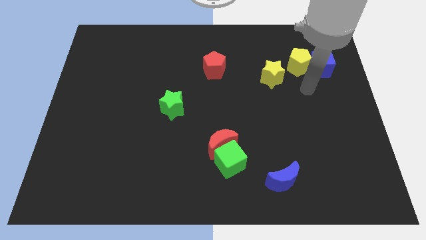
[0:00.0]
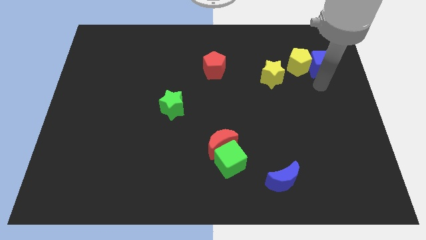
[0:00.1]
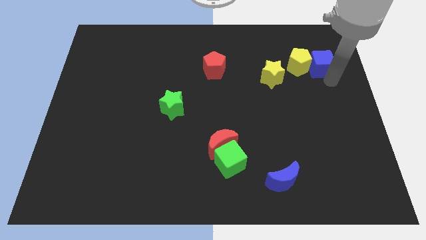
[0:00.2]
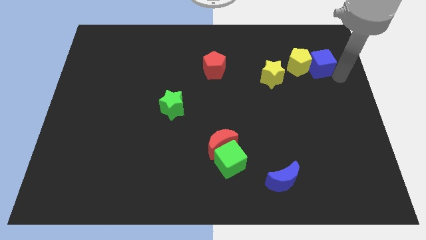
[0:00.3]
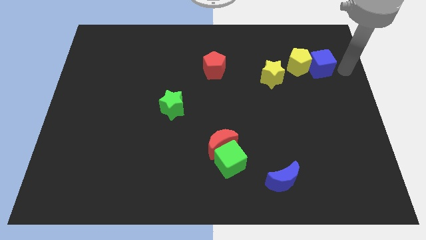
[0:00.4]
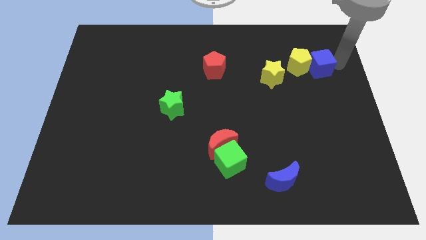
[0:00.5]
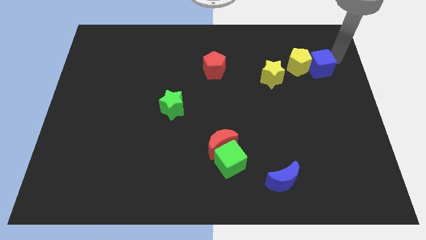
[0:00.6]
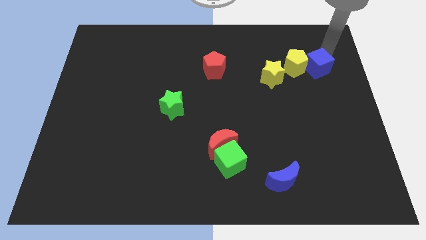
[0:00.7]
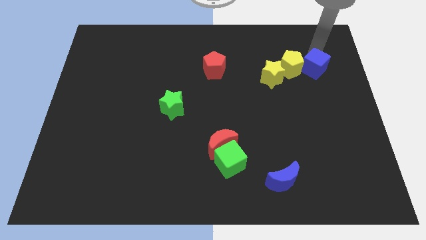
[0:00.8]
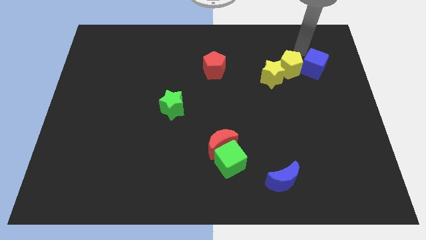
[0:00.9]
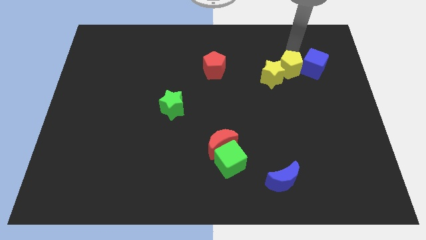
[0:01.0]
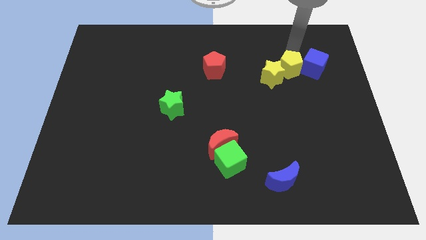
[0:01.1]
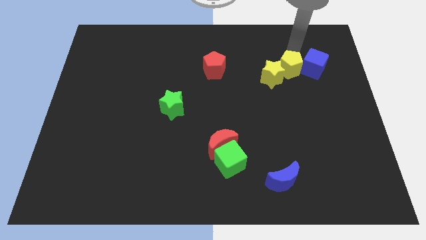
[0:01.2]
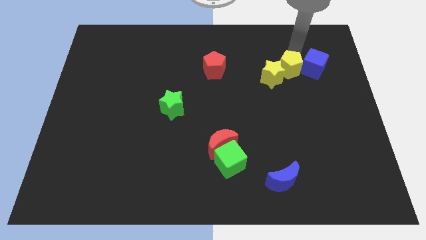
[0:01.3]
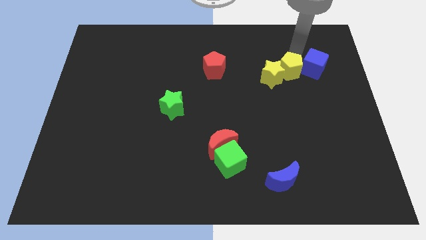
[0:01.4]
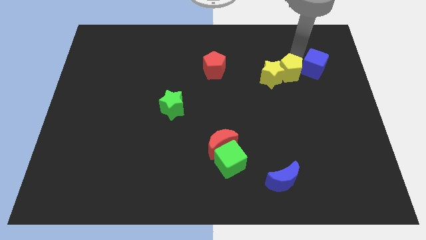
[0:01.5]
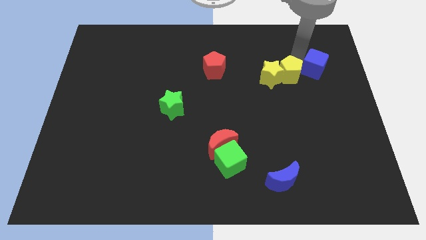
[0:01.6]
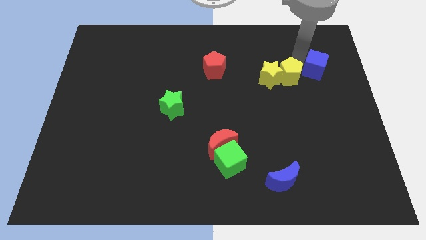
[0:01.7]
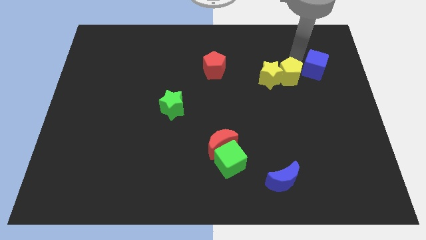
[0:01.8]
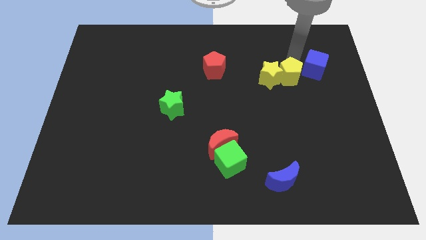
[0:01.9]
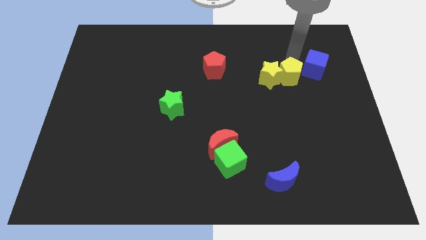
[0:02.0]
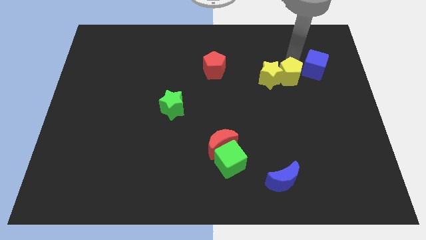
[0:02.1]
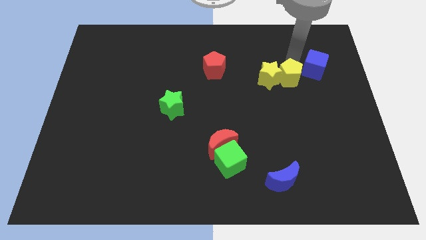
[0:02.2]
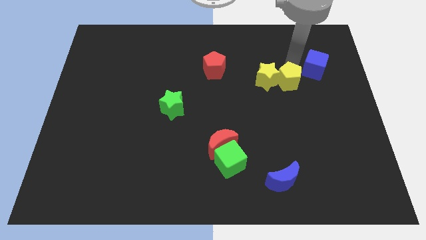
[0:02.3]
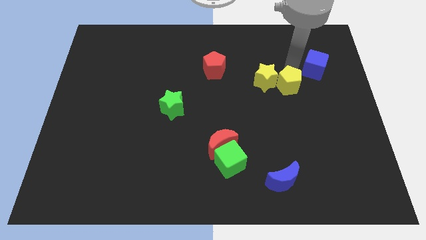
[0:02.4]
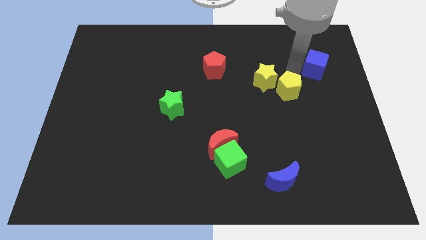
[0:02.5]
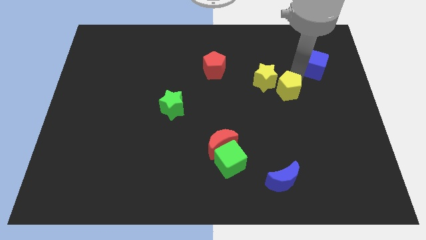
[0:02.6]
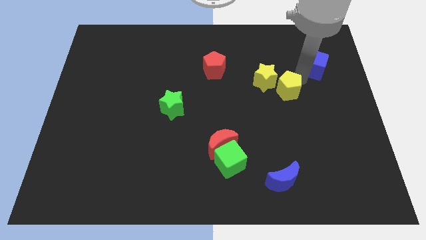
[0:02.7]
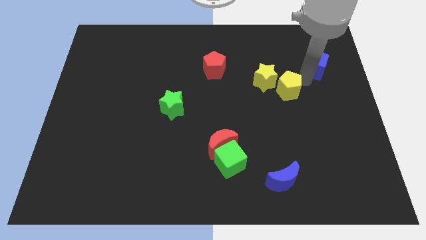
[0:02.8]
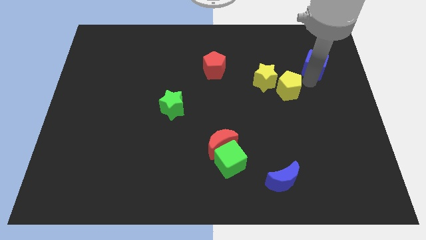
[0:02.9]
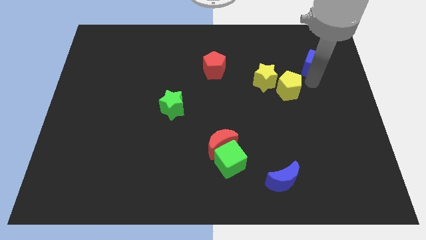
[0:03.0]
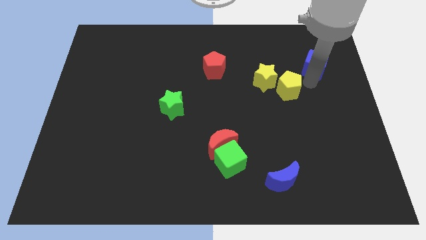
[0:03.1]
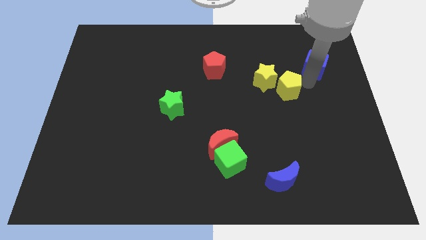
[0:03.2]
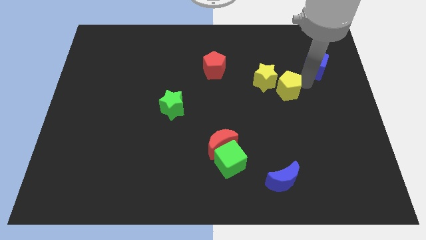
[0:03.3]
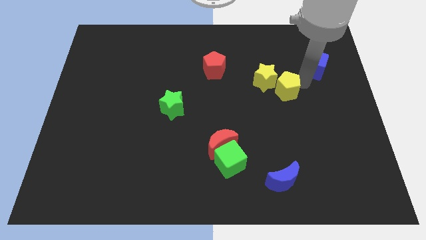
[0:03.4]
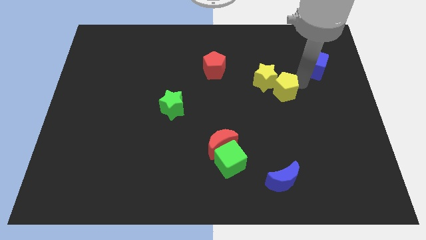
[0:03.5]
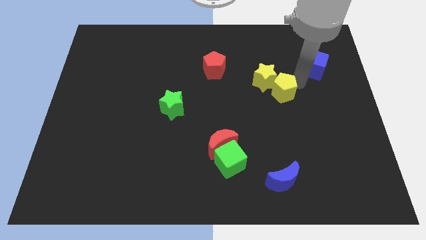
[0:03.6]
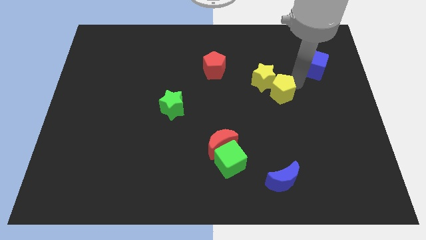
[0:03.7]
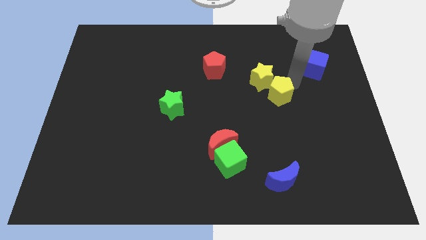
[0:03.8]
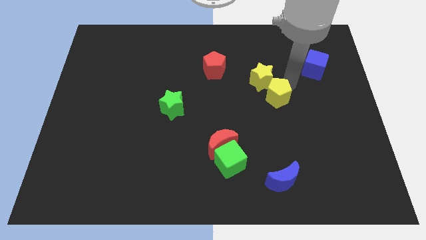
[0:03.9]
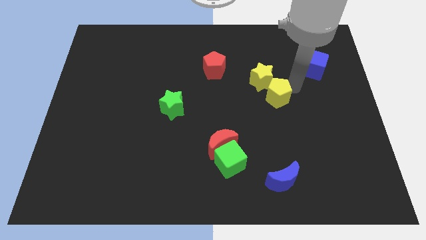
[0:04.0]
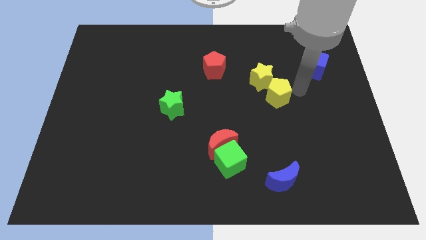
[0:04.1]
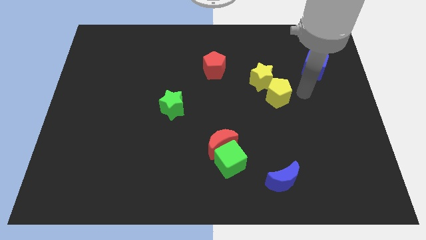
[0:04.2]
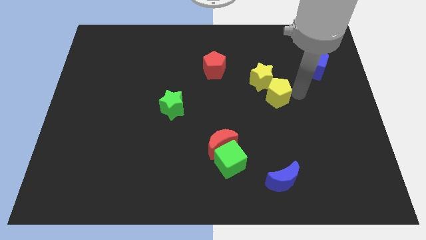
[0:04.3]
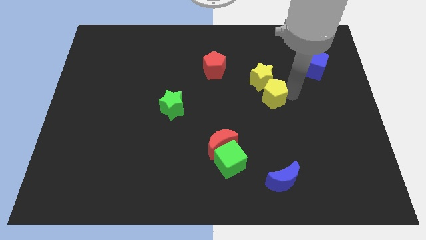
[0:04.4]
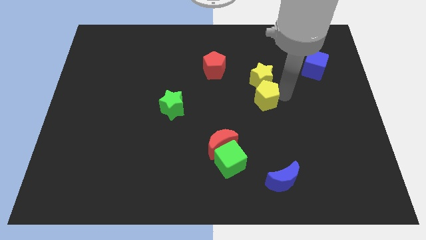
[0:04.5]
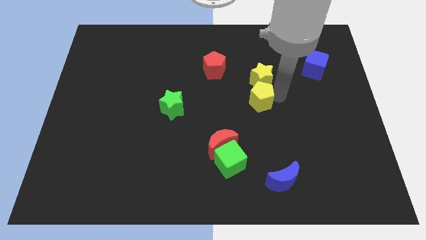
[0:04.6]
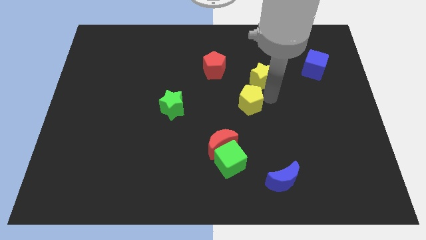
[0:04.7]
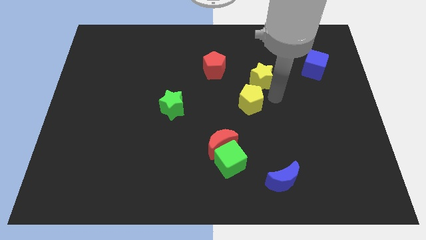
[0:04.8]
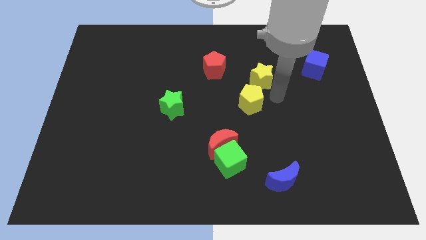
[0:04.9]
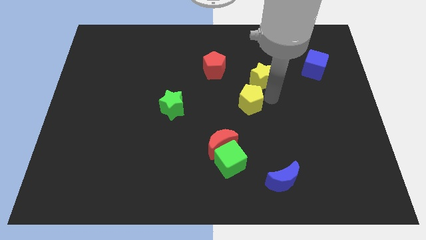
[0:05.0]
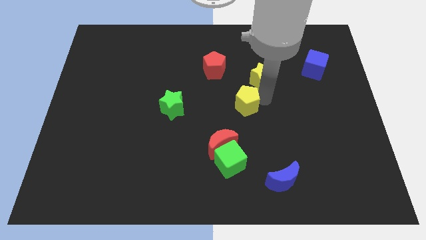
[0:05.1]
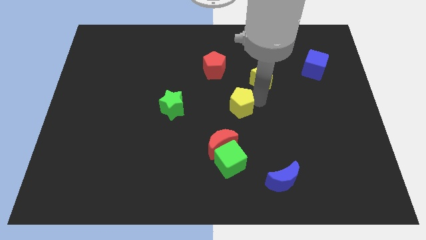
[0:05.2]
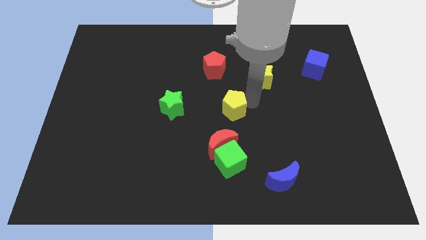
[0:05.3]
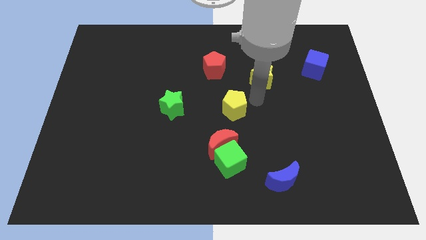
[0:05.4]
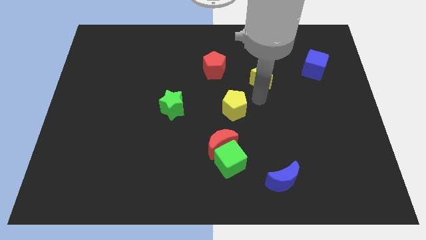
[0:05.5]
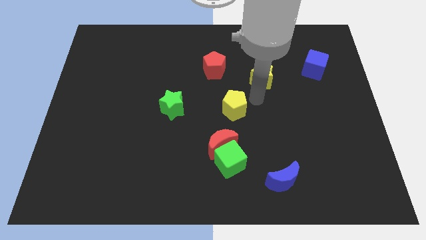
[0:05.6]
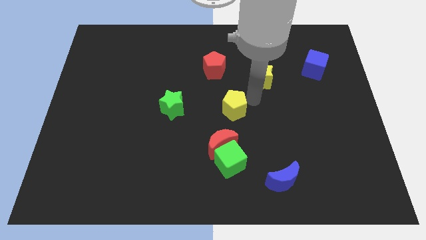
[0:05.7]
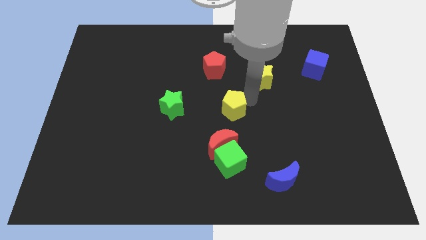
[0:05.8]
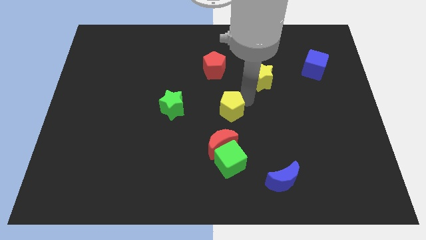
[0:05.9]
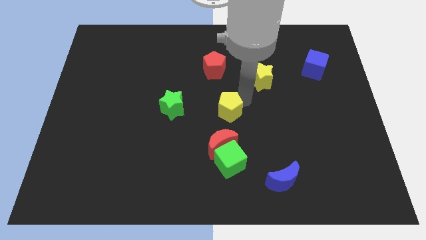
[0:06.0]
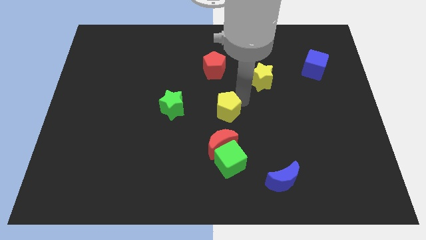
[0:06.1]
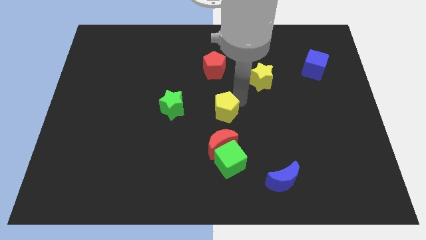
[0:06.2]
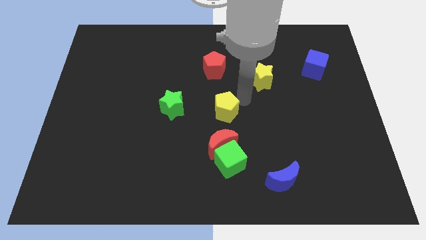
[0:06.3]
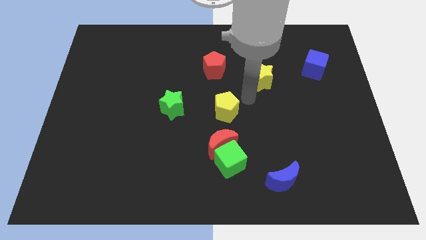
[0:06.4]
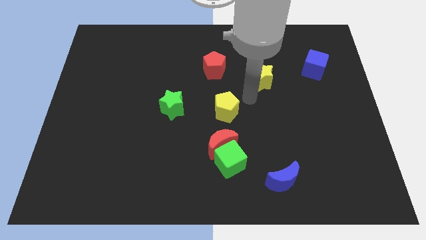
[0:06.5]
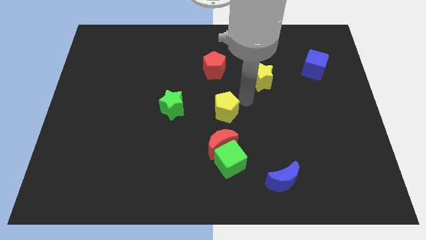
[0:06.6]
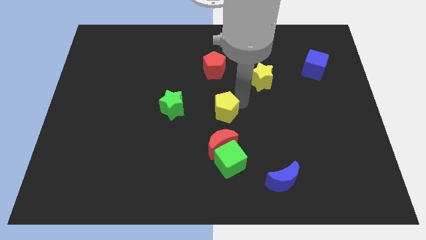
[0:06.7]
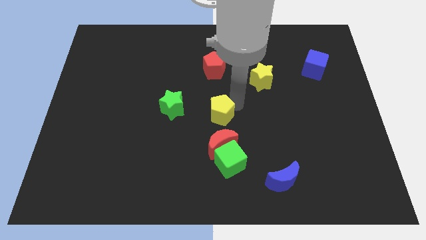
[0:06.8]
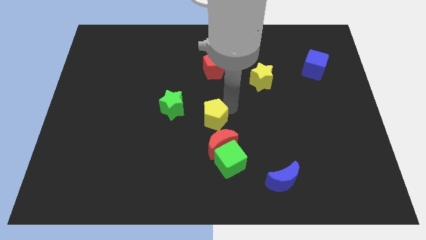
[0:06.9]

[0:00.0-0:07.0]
push the yellow pentagon to the top left of the red moon

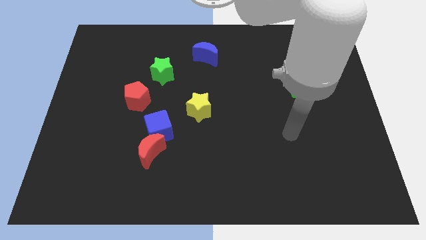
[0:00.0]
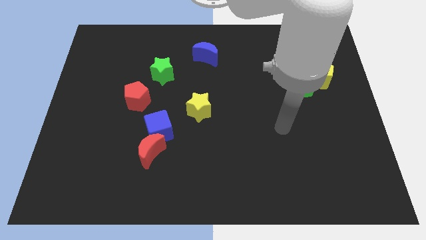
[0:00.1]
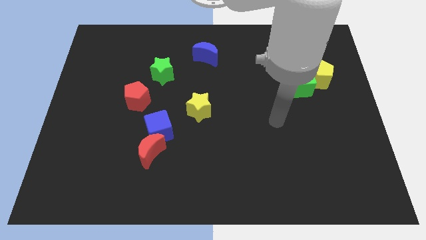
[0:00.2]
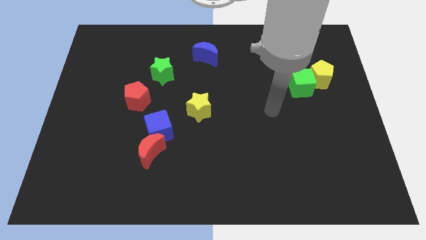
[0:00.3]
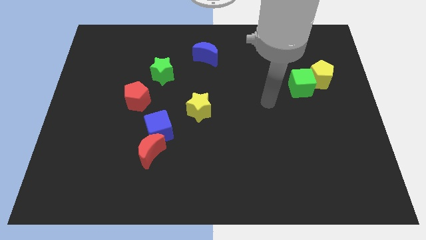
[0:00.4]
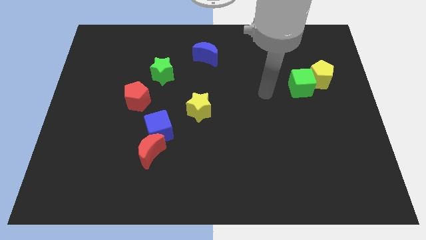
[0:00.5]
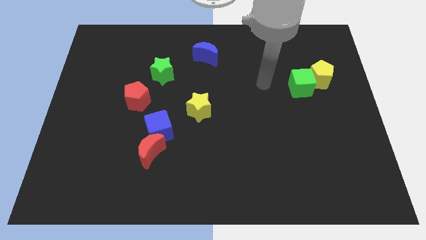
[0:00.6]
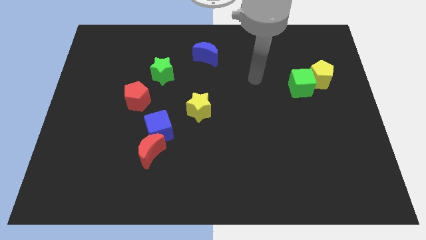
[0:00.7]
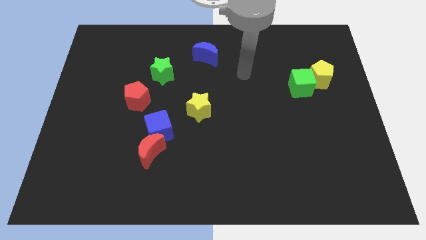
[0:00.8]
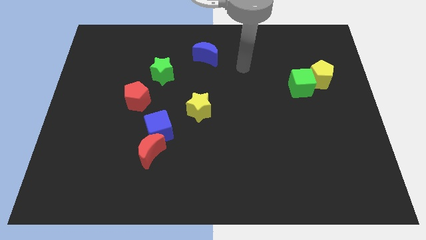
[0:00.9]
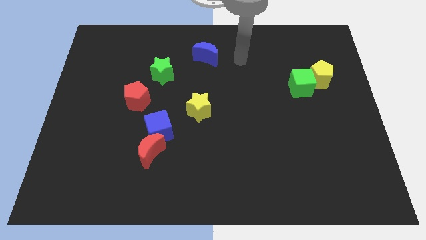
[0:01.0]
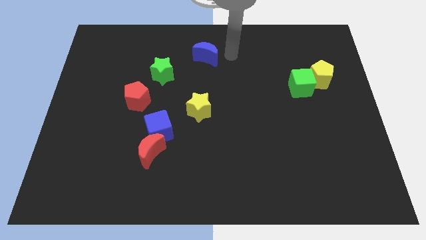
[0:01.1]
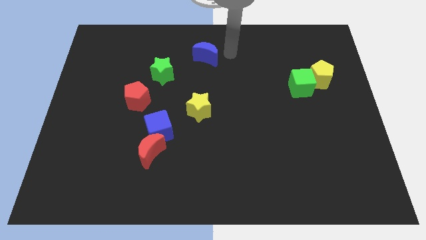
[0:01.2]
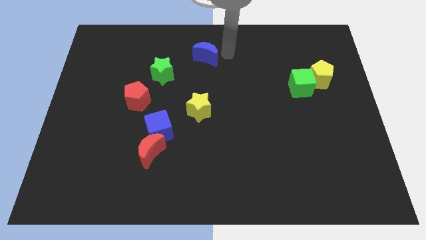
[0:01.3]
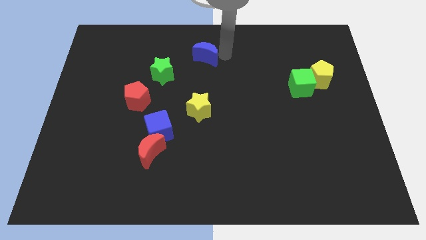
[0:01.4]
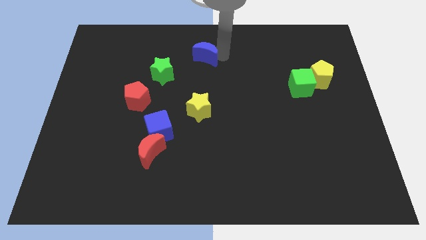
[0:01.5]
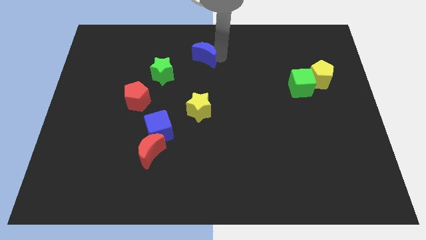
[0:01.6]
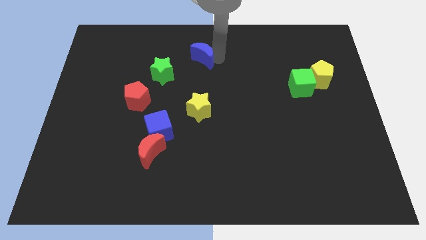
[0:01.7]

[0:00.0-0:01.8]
push the blue moon diagonally up and to the right of the green star
